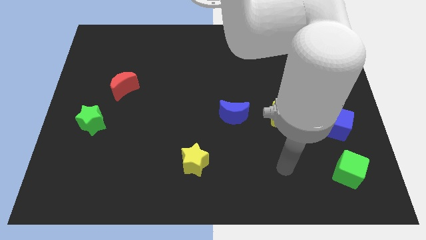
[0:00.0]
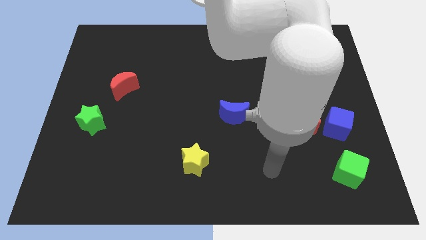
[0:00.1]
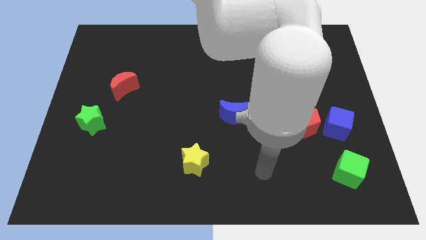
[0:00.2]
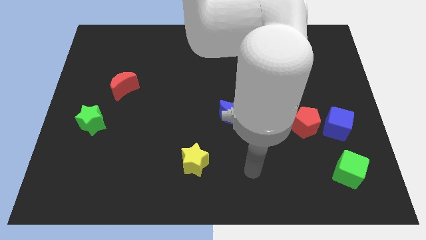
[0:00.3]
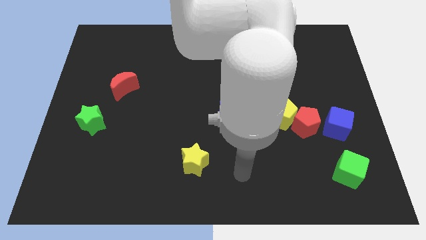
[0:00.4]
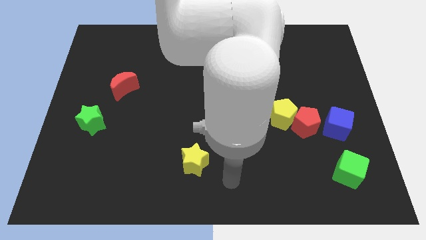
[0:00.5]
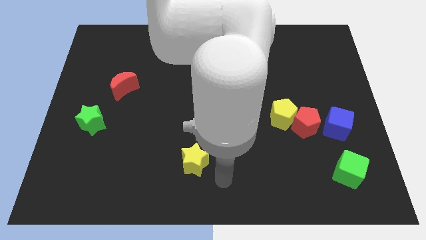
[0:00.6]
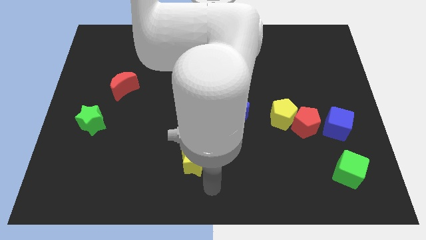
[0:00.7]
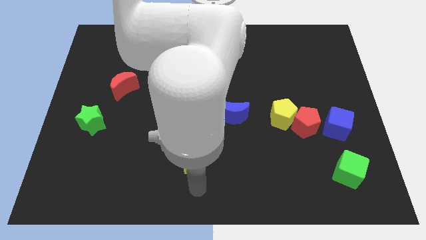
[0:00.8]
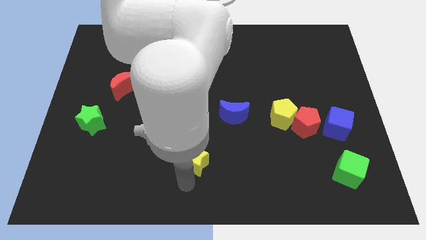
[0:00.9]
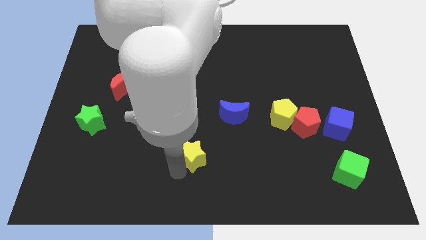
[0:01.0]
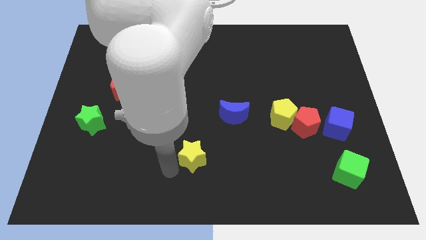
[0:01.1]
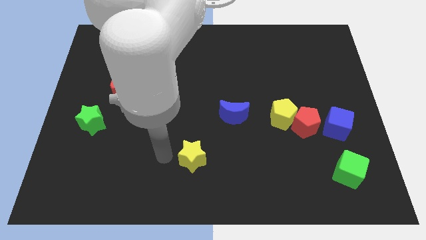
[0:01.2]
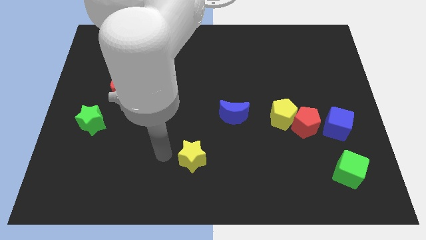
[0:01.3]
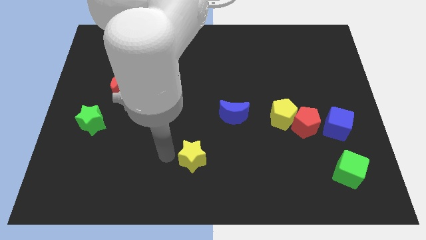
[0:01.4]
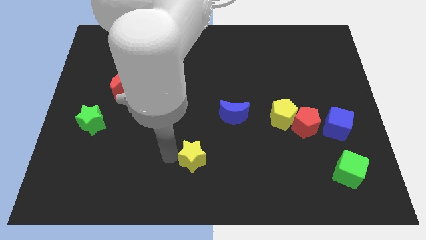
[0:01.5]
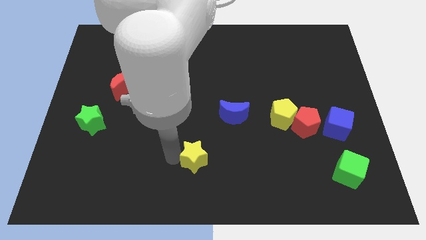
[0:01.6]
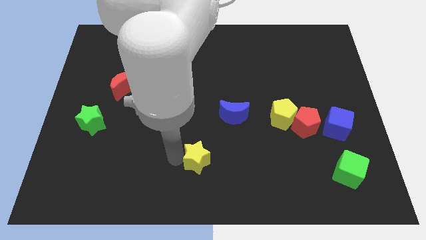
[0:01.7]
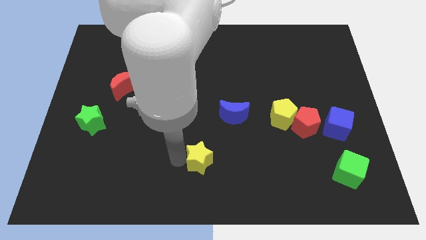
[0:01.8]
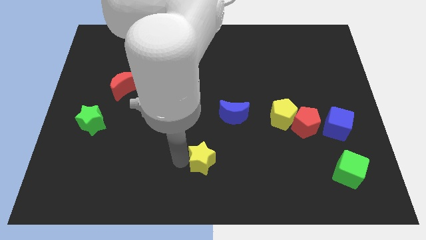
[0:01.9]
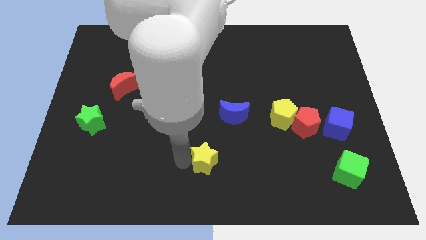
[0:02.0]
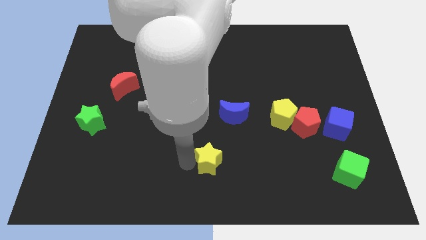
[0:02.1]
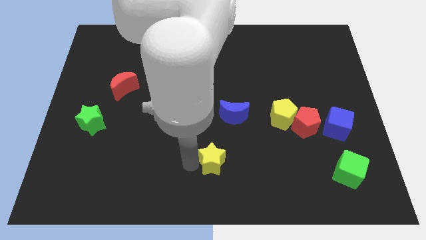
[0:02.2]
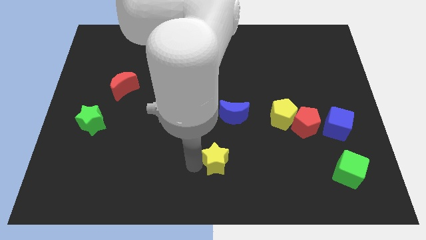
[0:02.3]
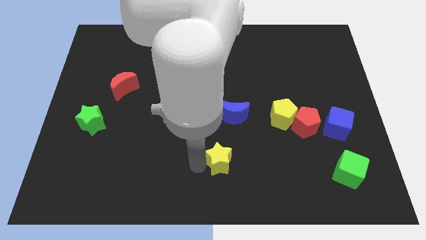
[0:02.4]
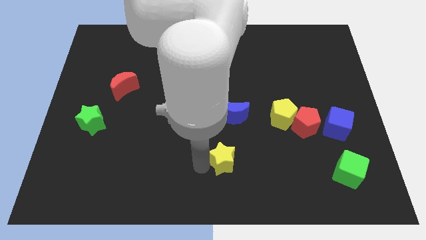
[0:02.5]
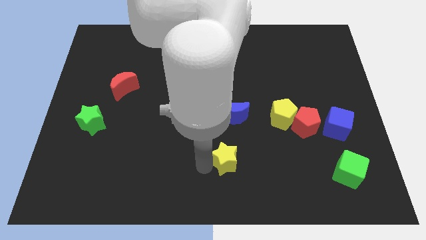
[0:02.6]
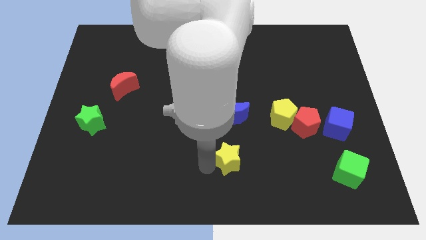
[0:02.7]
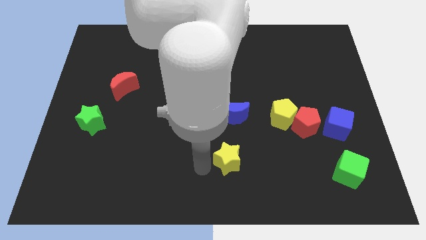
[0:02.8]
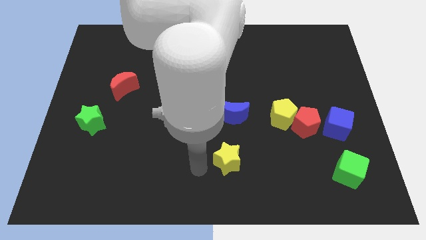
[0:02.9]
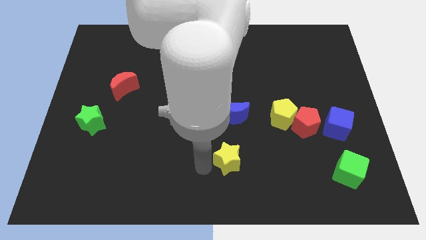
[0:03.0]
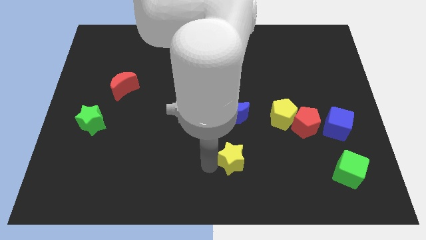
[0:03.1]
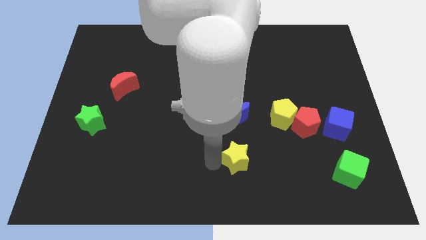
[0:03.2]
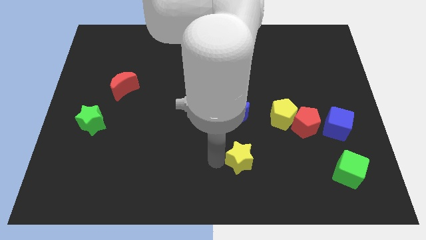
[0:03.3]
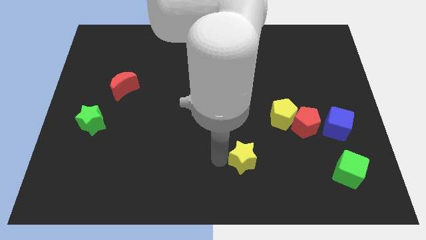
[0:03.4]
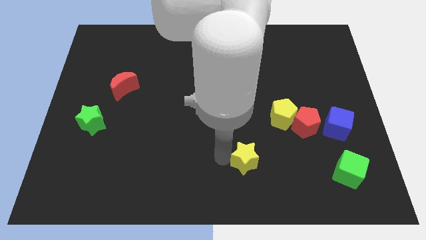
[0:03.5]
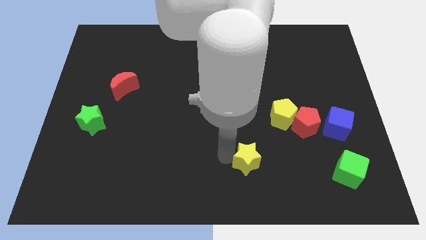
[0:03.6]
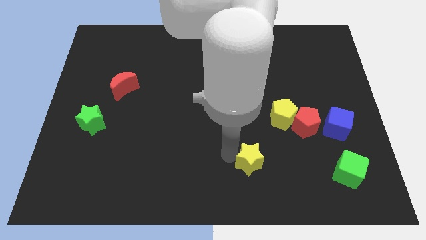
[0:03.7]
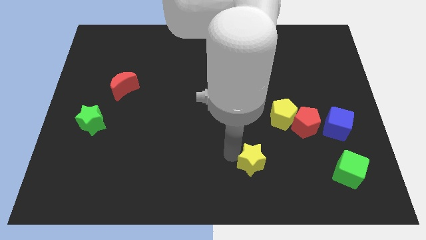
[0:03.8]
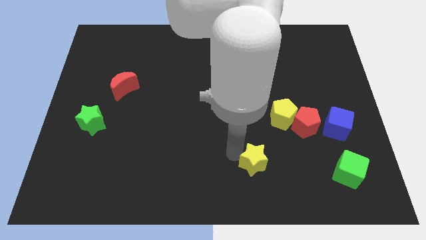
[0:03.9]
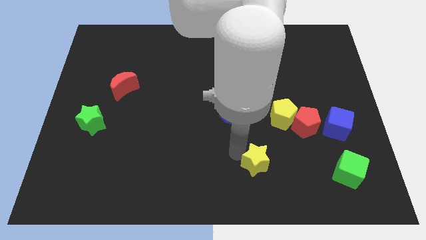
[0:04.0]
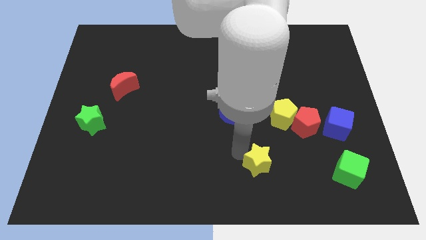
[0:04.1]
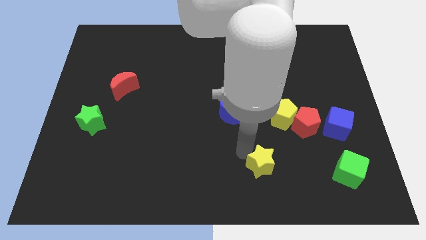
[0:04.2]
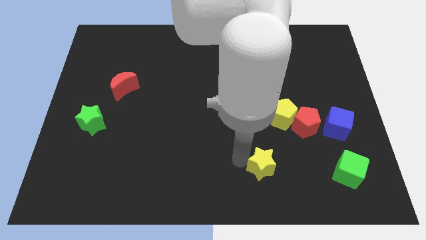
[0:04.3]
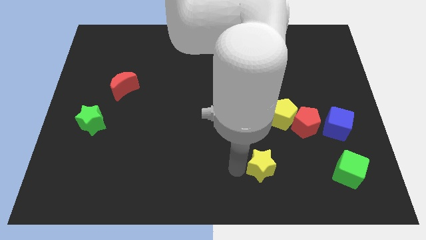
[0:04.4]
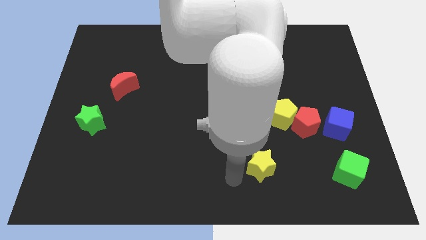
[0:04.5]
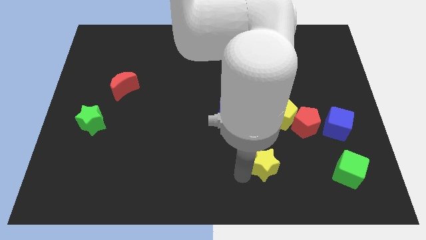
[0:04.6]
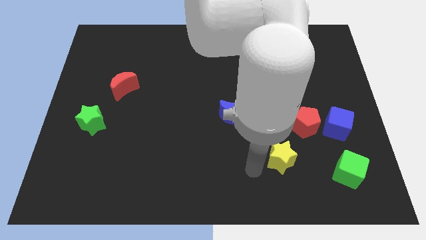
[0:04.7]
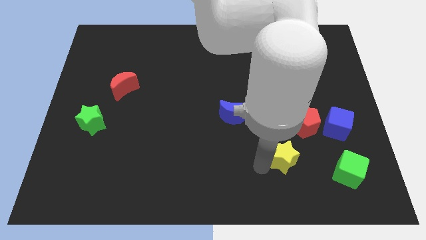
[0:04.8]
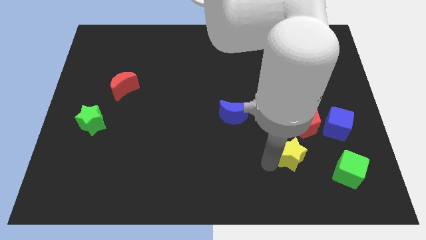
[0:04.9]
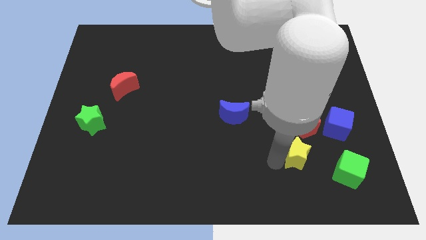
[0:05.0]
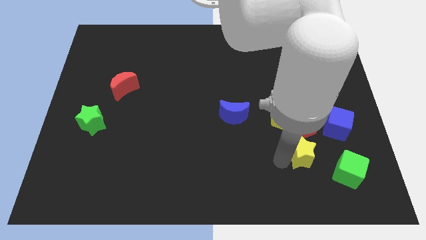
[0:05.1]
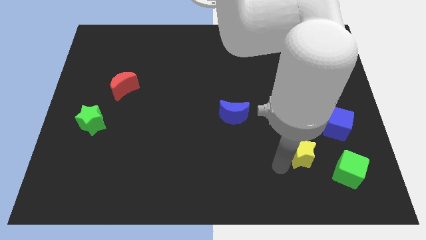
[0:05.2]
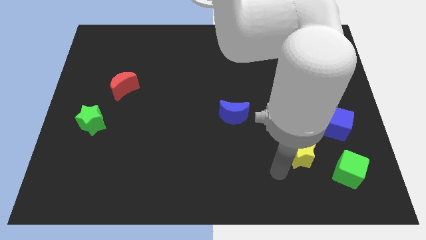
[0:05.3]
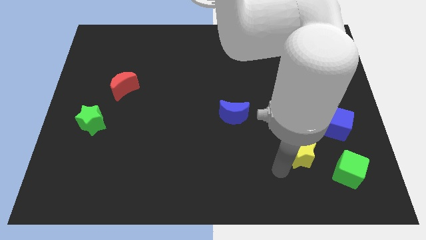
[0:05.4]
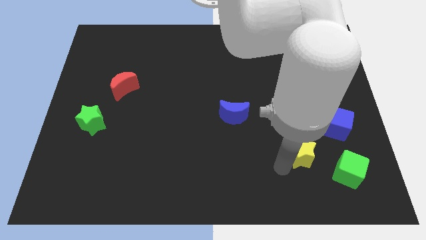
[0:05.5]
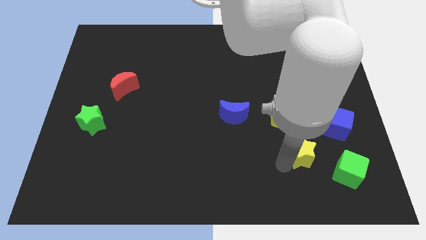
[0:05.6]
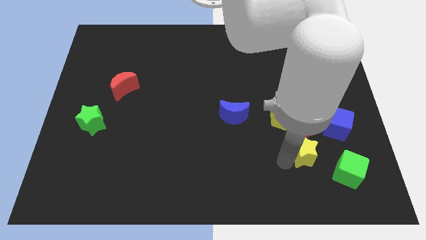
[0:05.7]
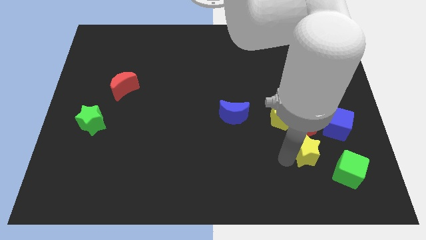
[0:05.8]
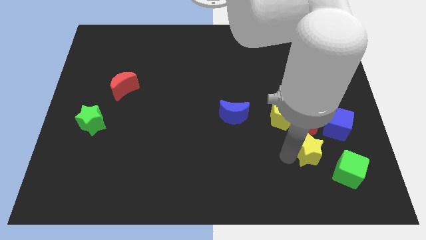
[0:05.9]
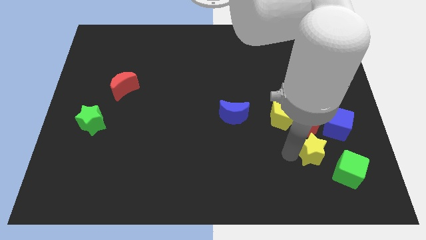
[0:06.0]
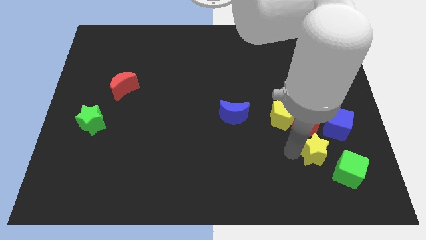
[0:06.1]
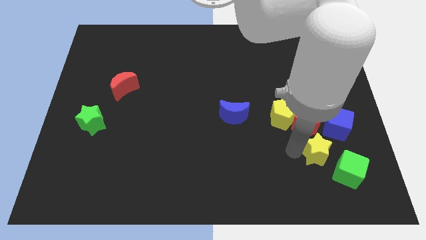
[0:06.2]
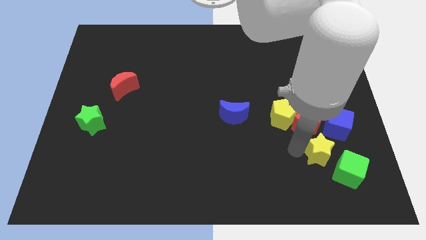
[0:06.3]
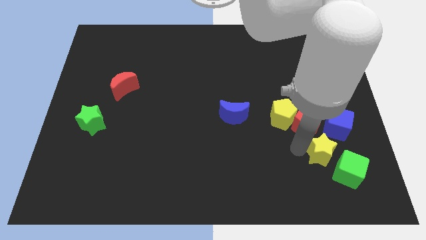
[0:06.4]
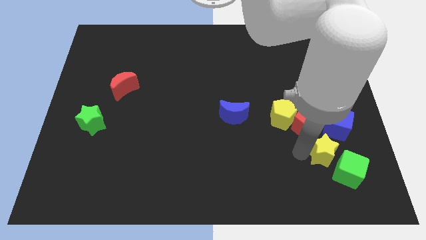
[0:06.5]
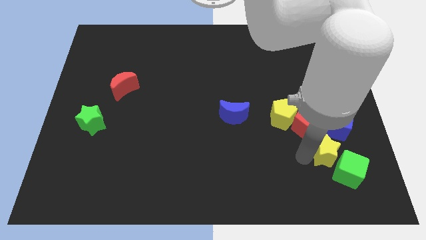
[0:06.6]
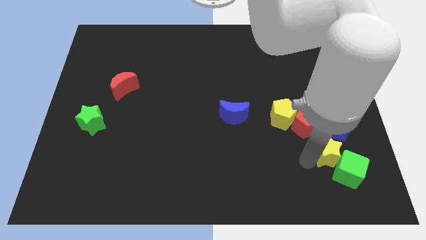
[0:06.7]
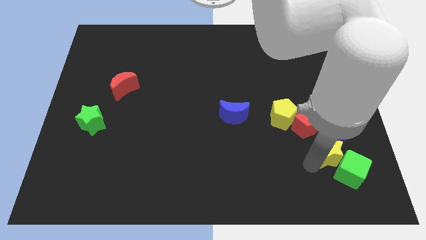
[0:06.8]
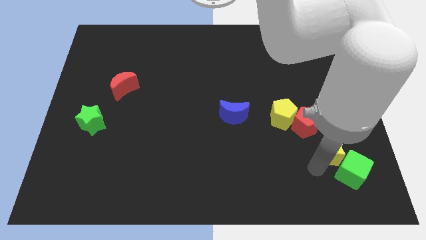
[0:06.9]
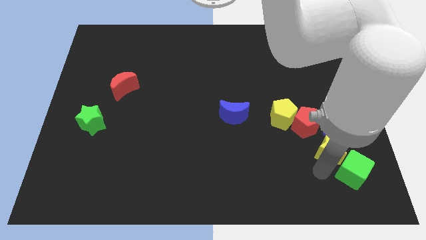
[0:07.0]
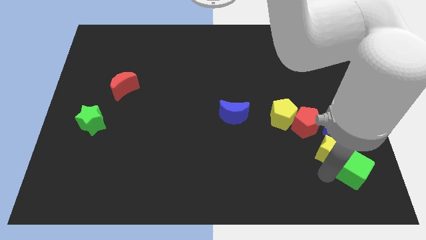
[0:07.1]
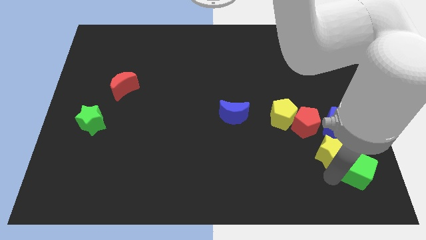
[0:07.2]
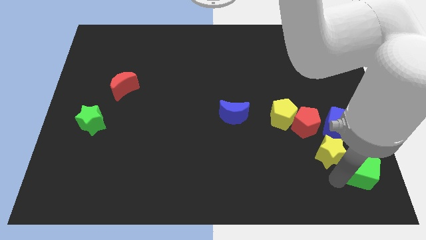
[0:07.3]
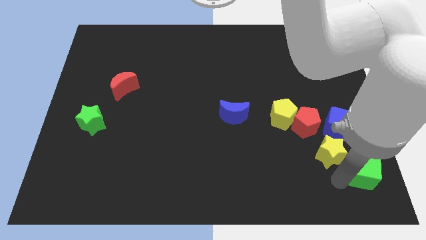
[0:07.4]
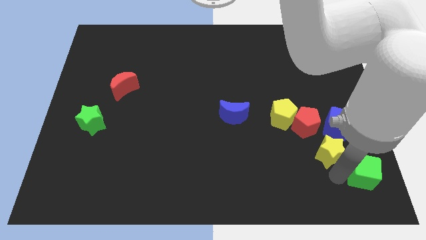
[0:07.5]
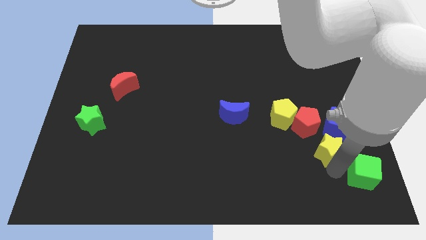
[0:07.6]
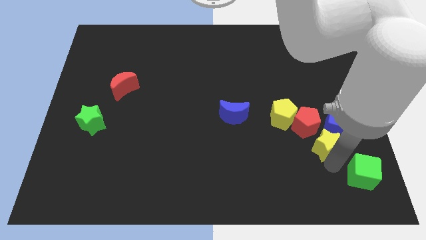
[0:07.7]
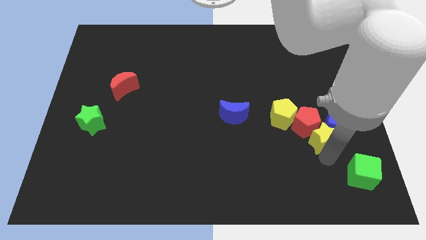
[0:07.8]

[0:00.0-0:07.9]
move the yellow star close to the blue cube
